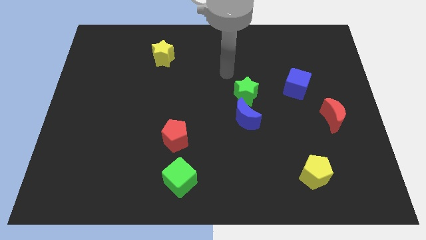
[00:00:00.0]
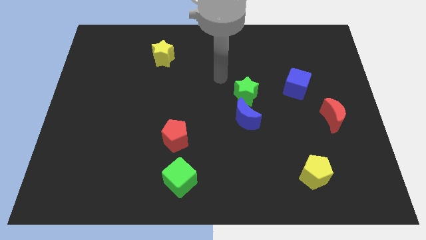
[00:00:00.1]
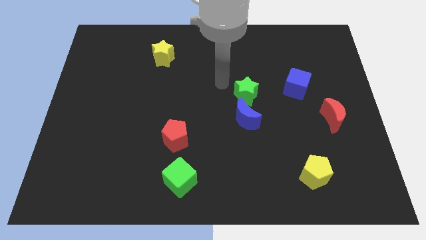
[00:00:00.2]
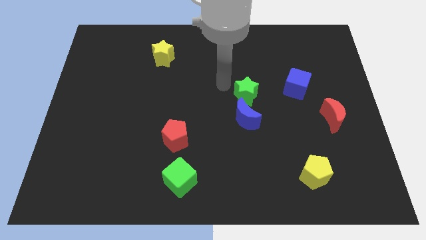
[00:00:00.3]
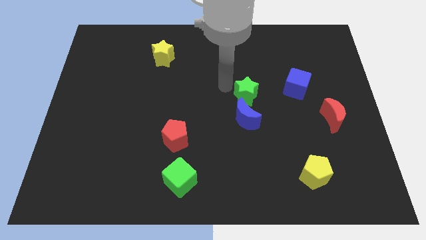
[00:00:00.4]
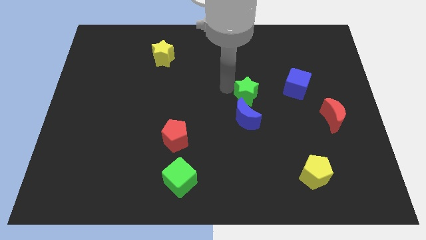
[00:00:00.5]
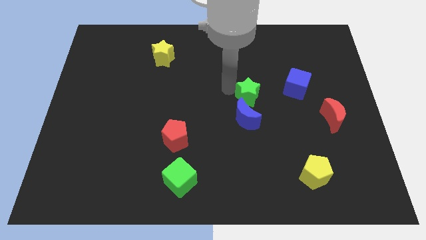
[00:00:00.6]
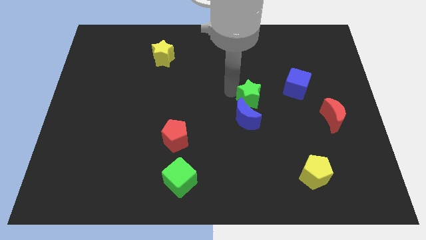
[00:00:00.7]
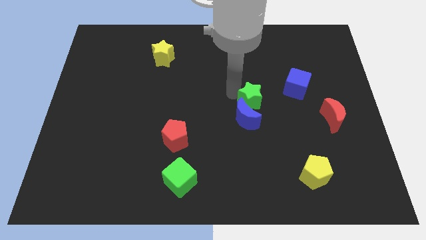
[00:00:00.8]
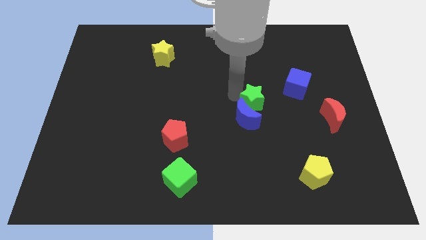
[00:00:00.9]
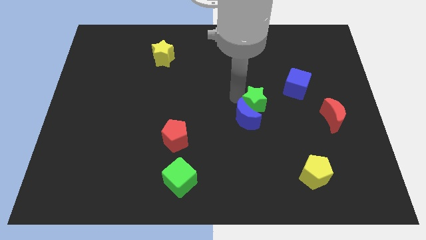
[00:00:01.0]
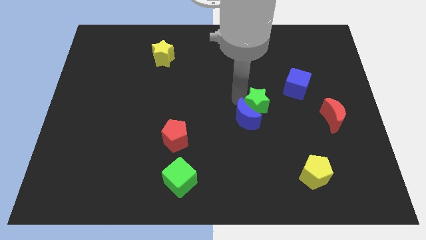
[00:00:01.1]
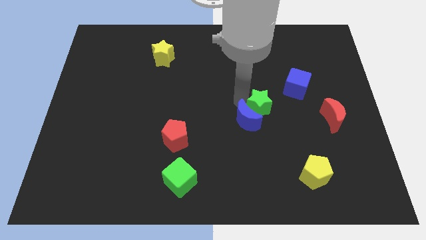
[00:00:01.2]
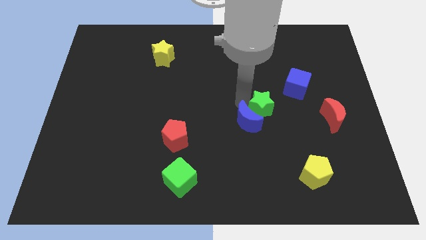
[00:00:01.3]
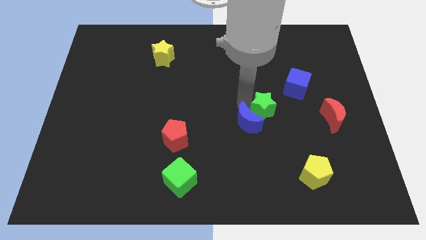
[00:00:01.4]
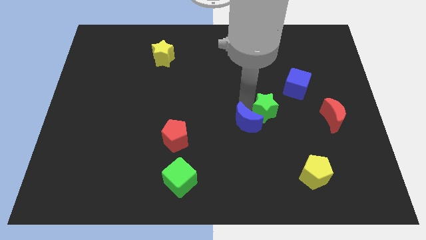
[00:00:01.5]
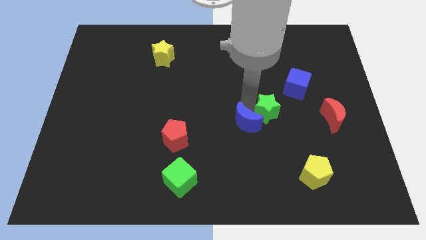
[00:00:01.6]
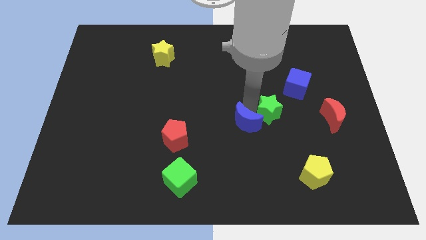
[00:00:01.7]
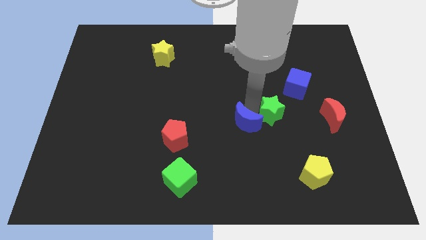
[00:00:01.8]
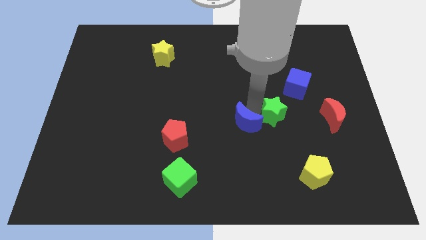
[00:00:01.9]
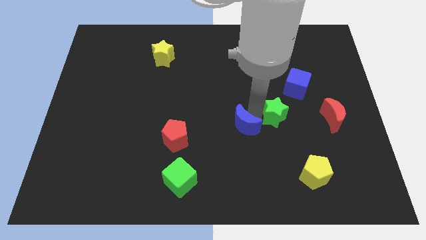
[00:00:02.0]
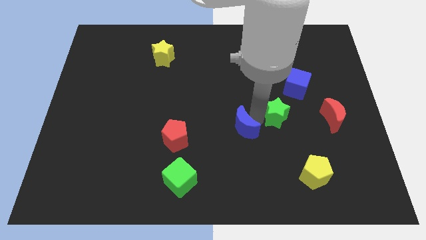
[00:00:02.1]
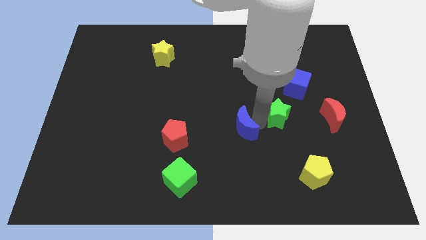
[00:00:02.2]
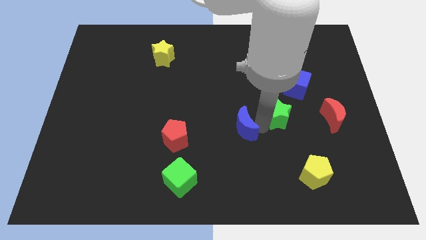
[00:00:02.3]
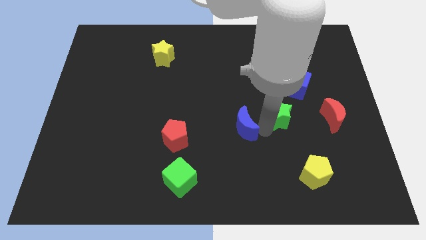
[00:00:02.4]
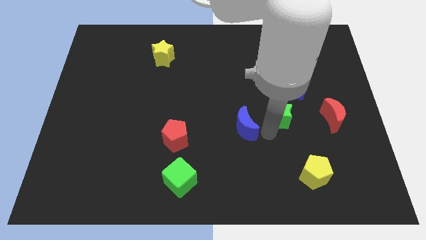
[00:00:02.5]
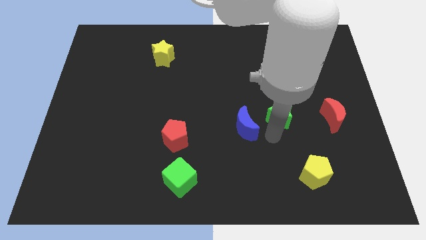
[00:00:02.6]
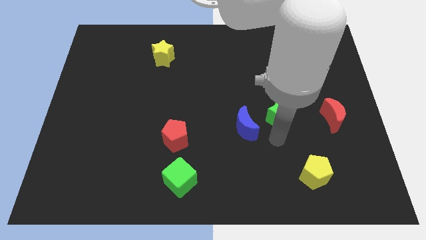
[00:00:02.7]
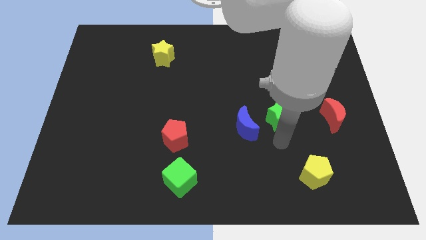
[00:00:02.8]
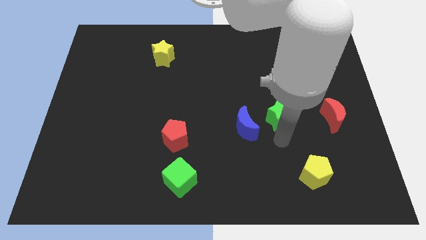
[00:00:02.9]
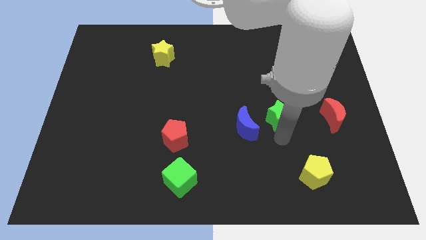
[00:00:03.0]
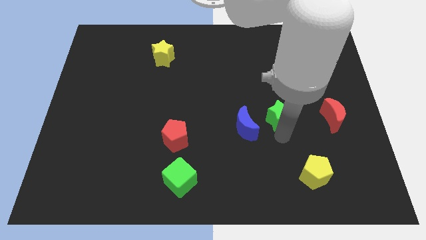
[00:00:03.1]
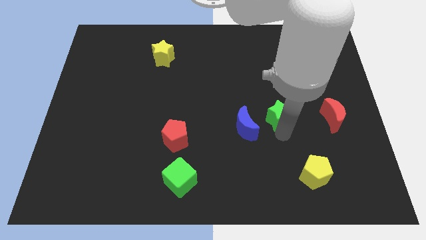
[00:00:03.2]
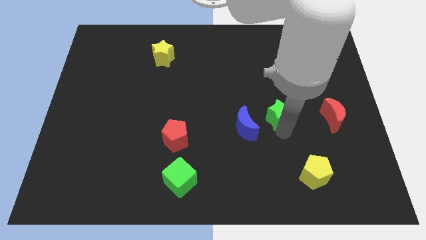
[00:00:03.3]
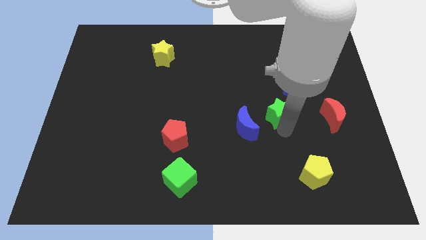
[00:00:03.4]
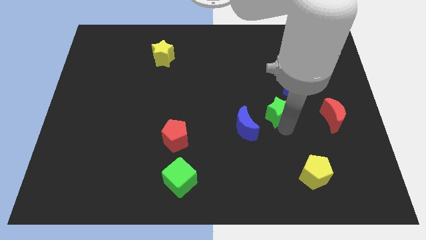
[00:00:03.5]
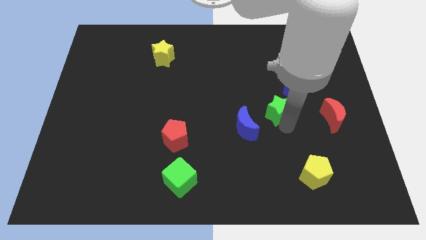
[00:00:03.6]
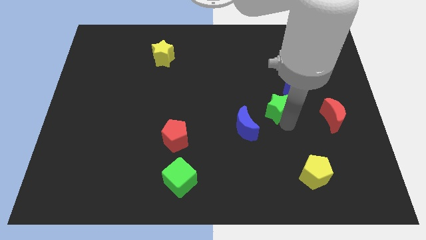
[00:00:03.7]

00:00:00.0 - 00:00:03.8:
push the green star right a little

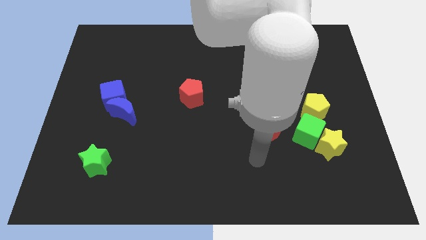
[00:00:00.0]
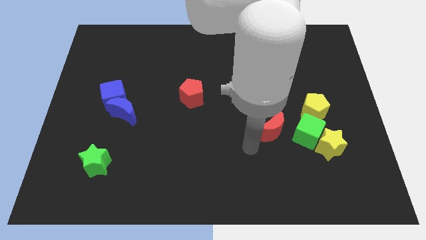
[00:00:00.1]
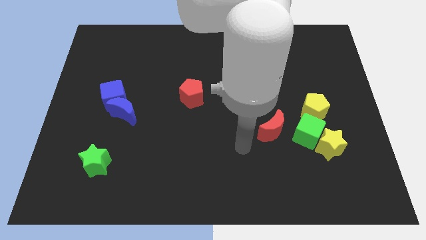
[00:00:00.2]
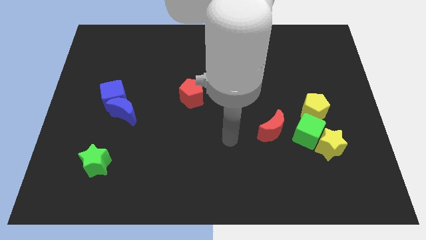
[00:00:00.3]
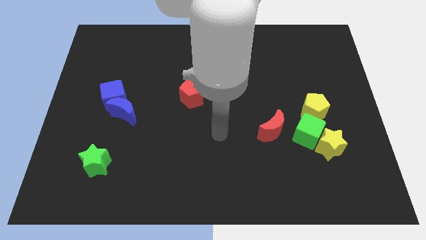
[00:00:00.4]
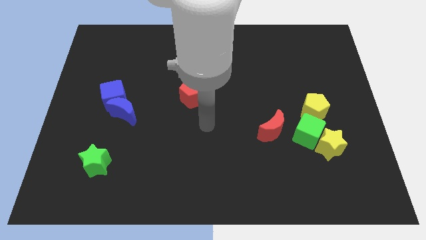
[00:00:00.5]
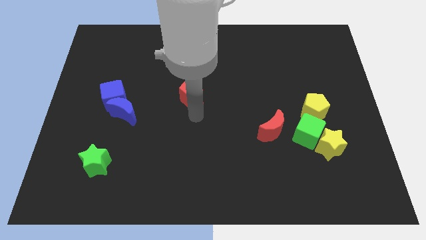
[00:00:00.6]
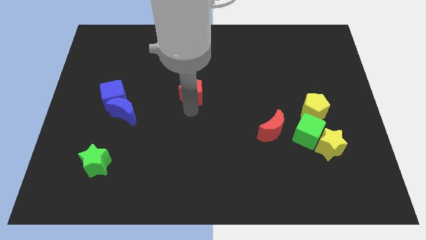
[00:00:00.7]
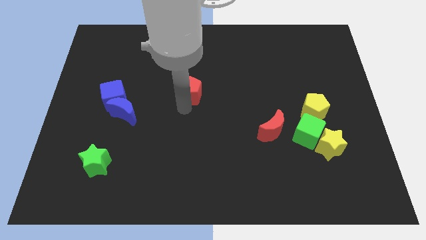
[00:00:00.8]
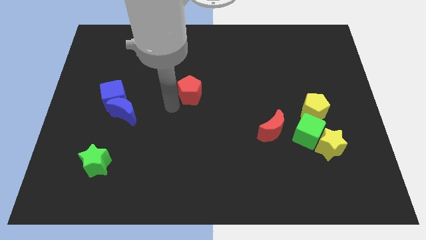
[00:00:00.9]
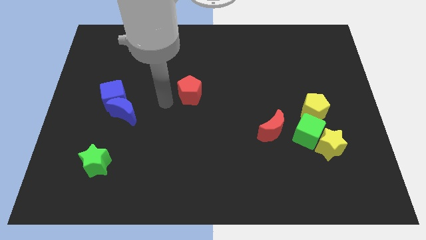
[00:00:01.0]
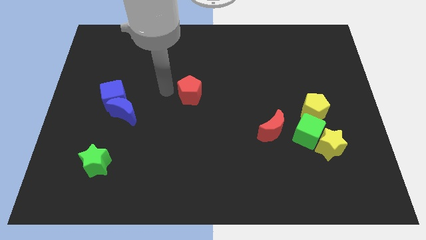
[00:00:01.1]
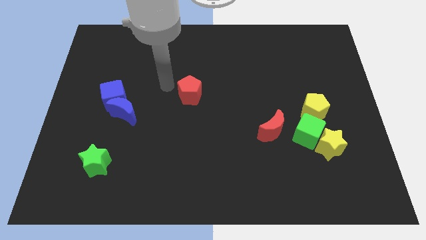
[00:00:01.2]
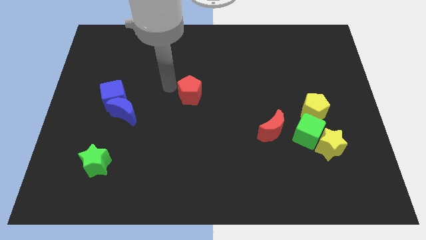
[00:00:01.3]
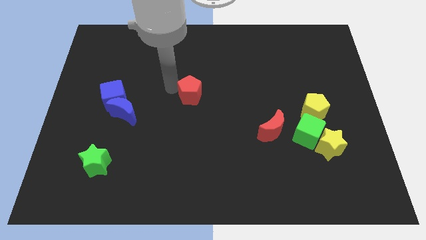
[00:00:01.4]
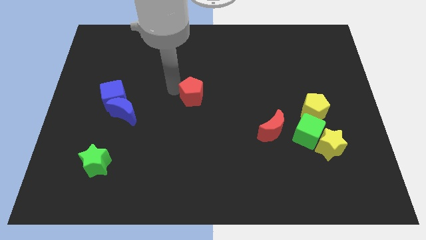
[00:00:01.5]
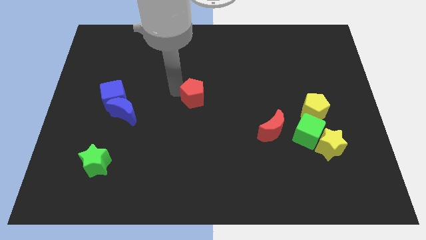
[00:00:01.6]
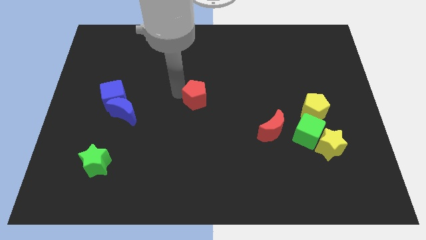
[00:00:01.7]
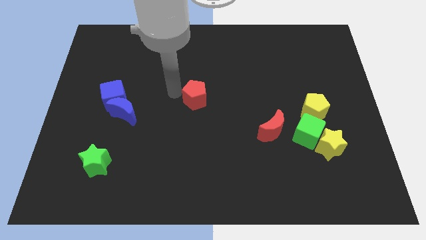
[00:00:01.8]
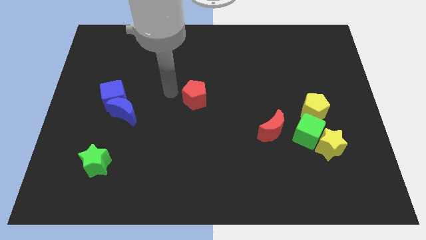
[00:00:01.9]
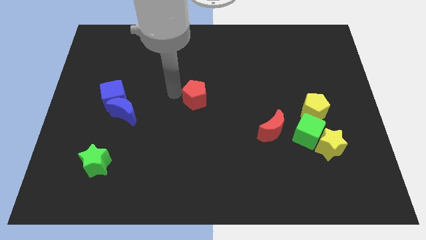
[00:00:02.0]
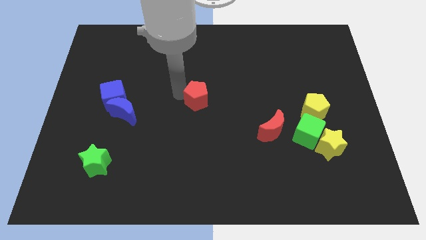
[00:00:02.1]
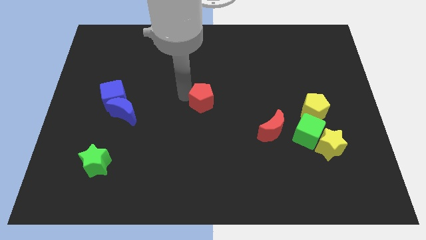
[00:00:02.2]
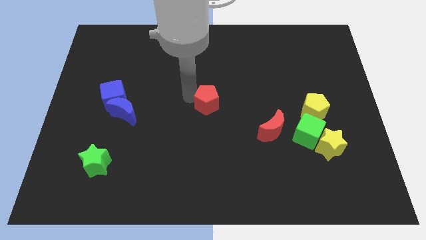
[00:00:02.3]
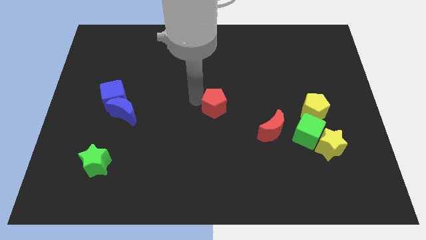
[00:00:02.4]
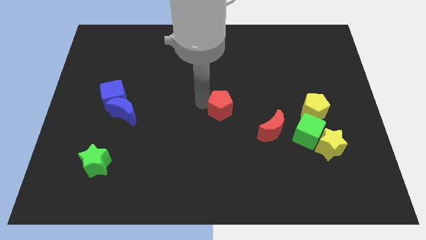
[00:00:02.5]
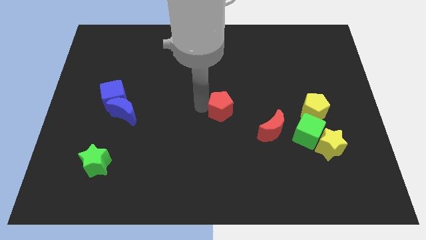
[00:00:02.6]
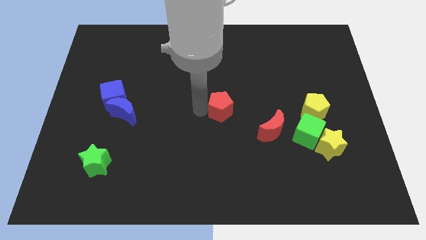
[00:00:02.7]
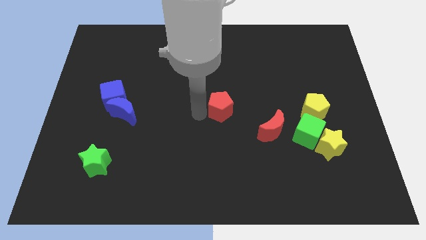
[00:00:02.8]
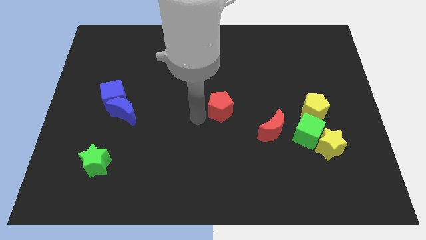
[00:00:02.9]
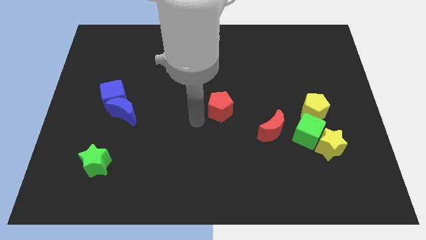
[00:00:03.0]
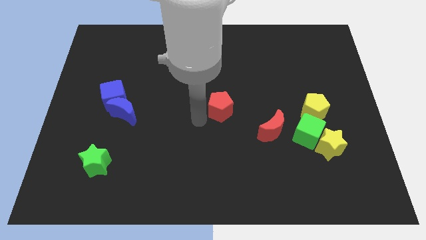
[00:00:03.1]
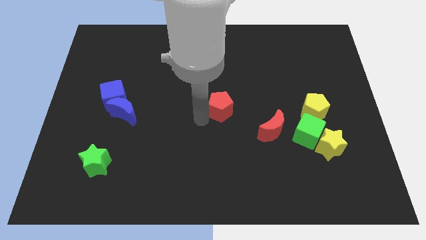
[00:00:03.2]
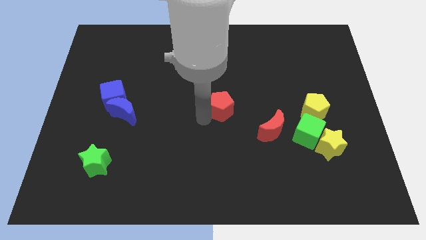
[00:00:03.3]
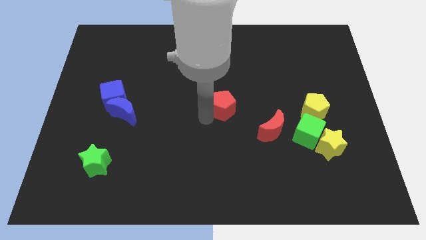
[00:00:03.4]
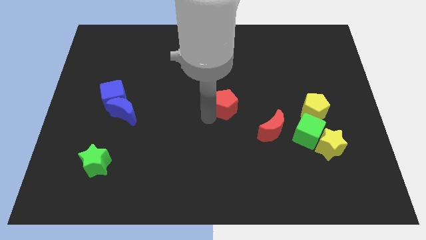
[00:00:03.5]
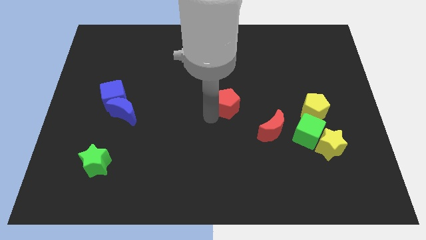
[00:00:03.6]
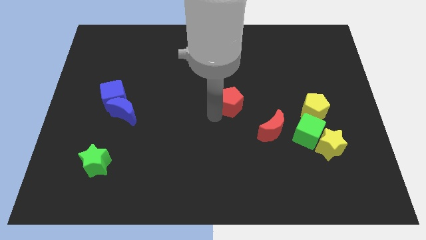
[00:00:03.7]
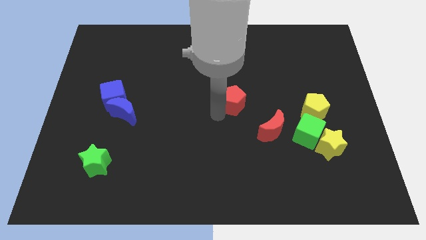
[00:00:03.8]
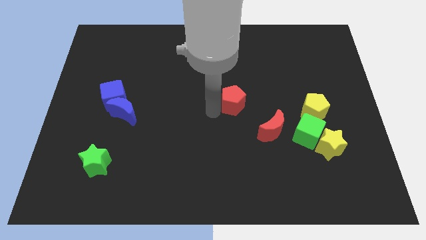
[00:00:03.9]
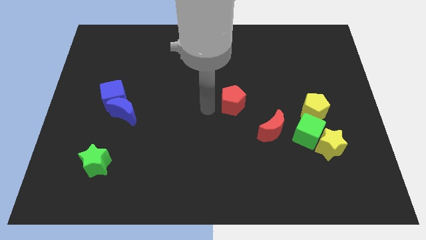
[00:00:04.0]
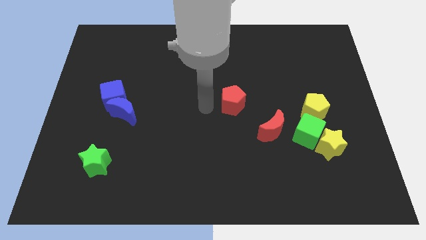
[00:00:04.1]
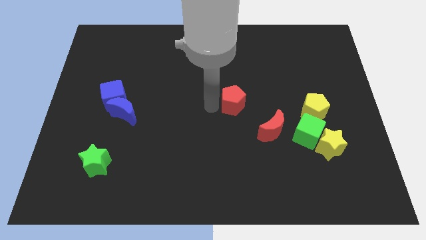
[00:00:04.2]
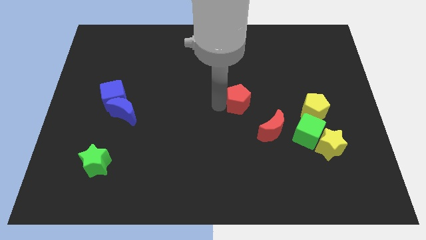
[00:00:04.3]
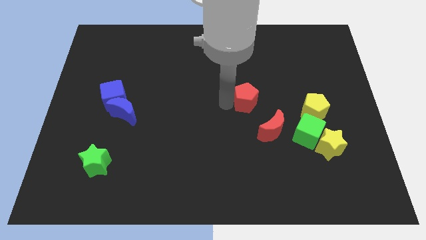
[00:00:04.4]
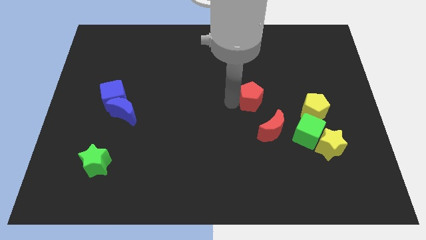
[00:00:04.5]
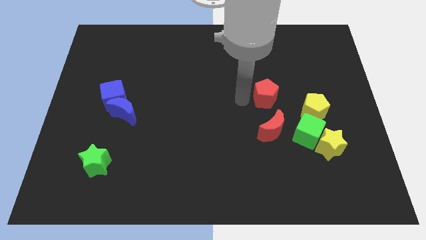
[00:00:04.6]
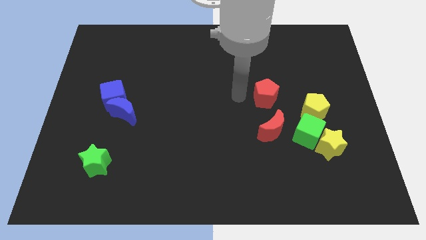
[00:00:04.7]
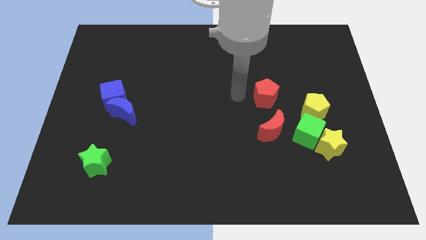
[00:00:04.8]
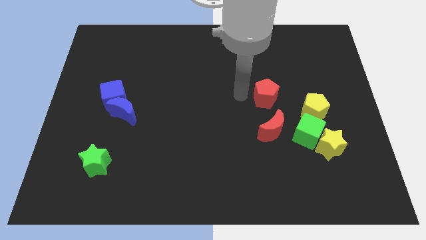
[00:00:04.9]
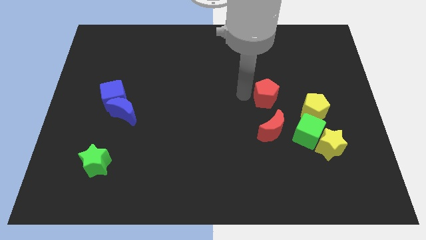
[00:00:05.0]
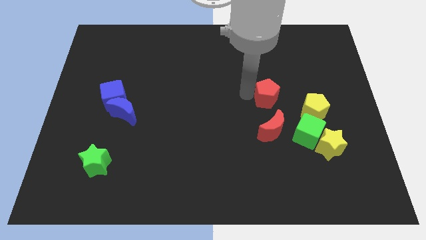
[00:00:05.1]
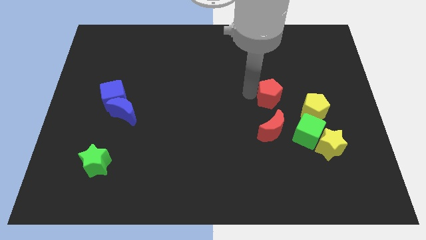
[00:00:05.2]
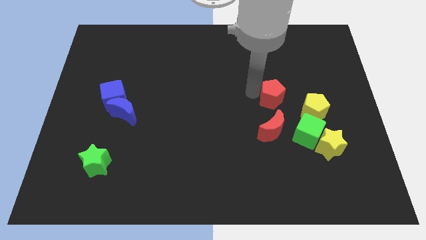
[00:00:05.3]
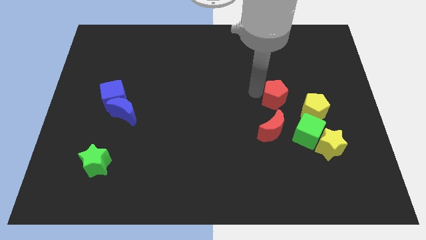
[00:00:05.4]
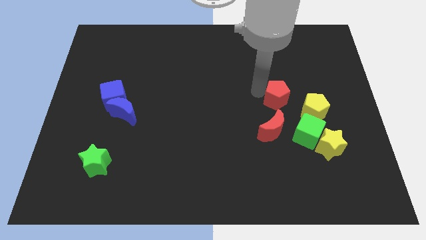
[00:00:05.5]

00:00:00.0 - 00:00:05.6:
slide the red pentagon to the right
